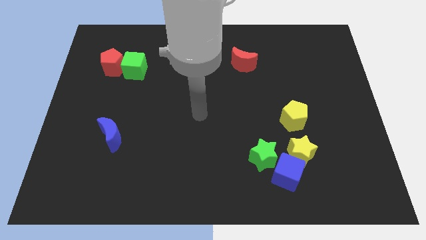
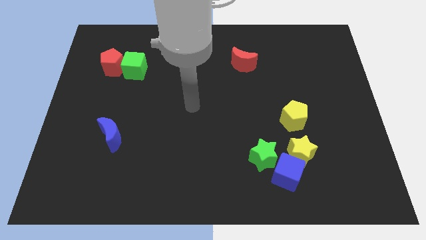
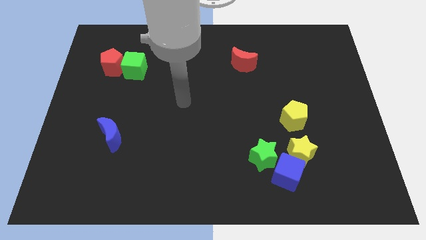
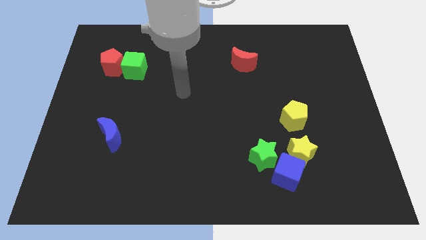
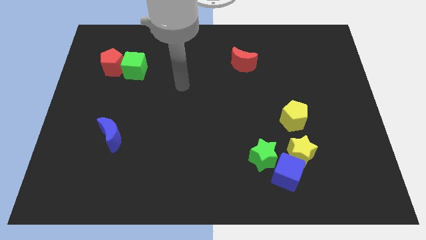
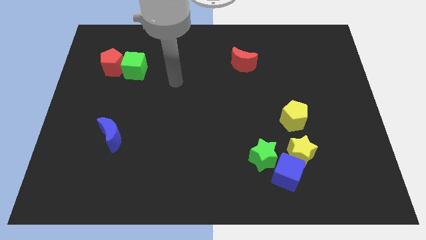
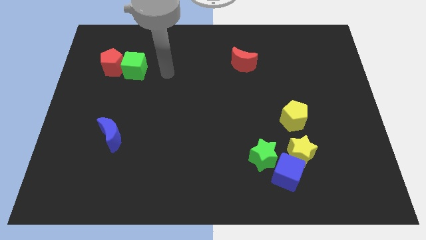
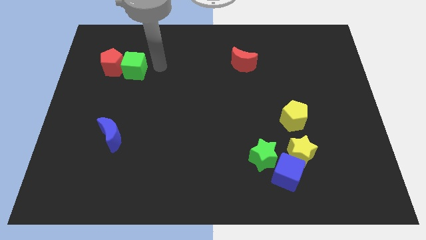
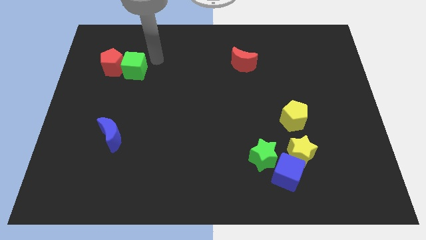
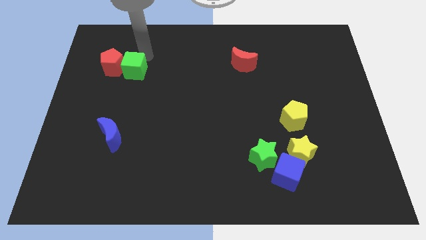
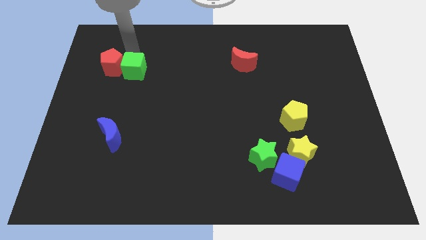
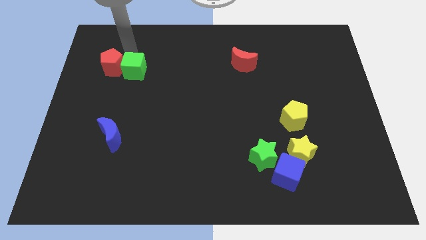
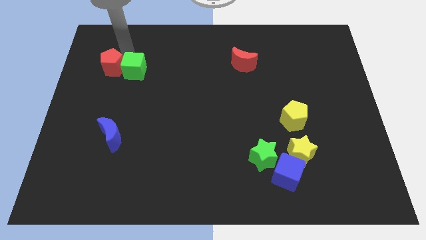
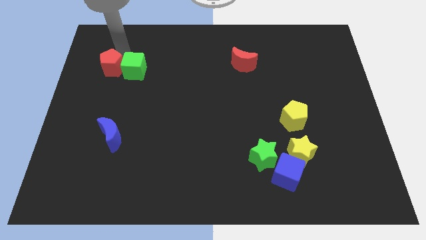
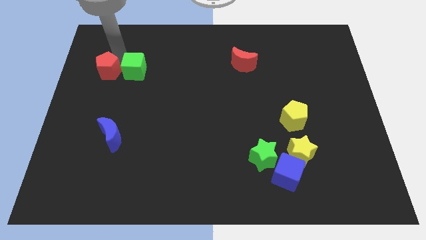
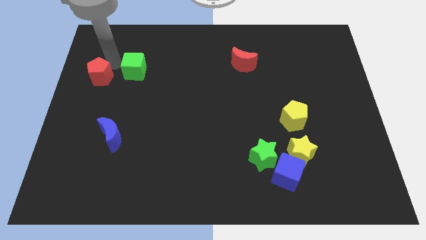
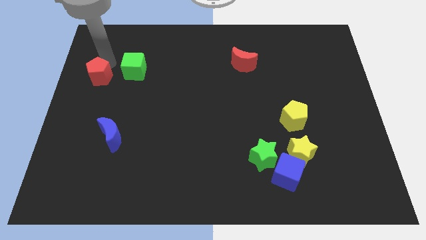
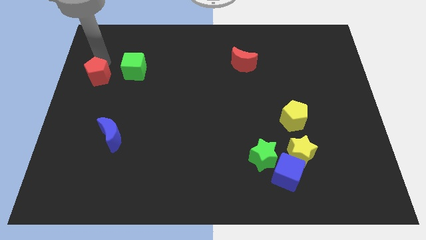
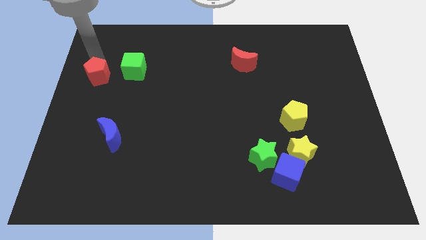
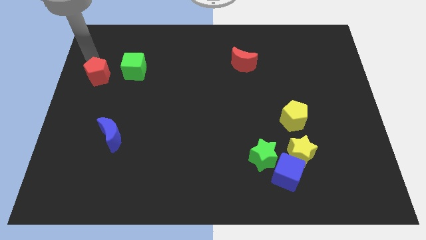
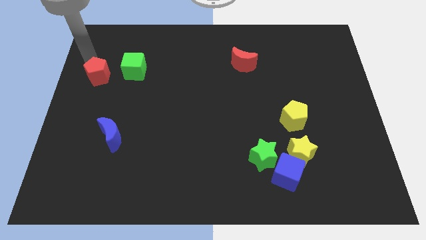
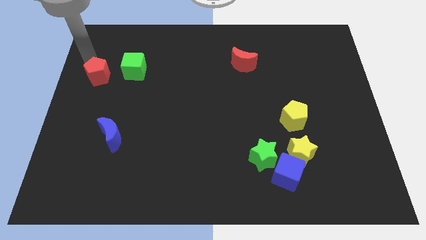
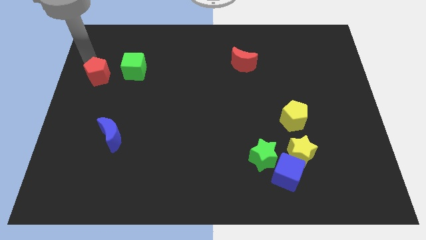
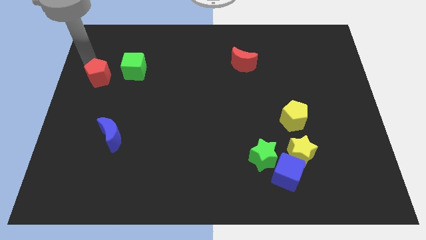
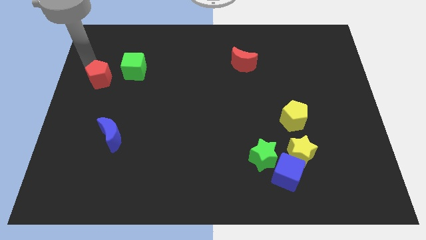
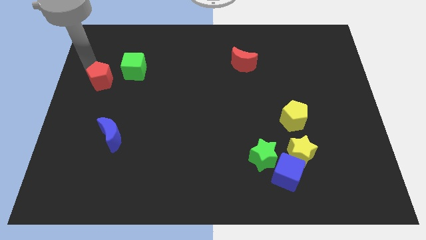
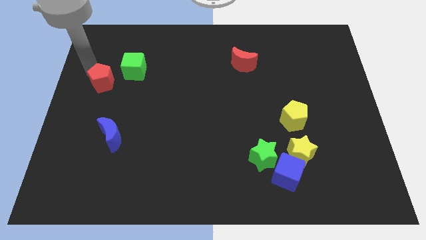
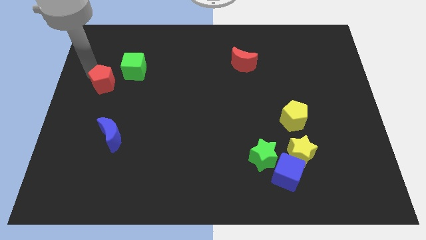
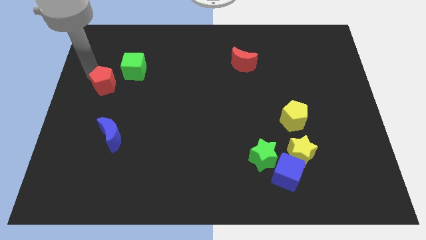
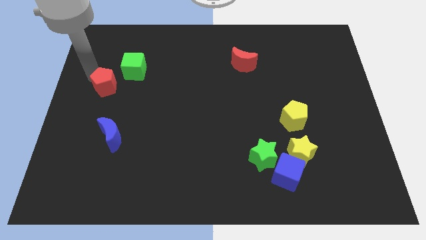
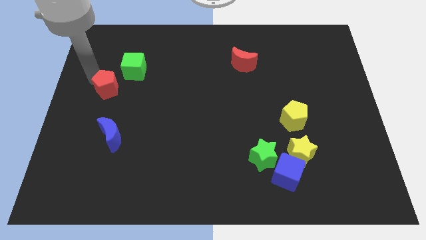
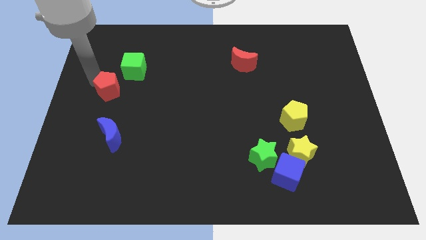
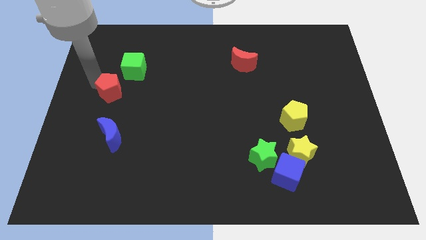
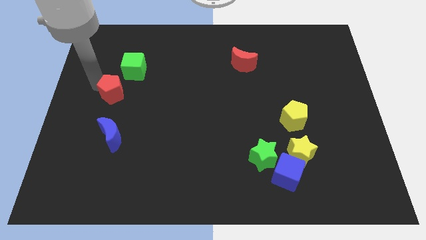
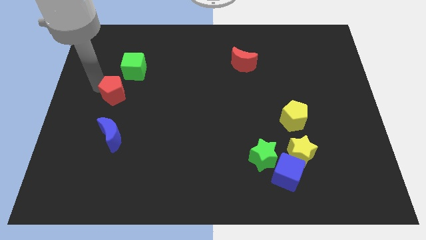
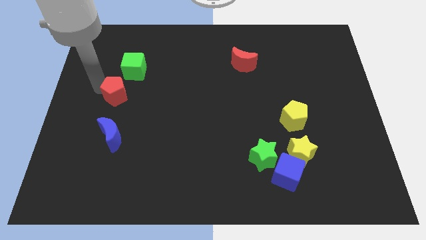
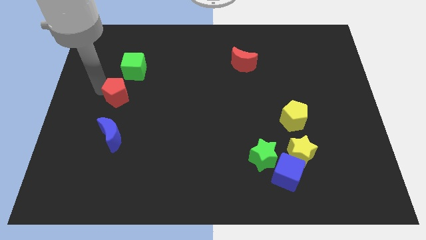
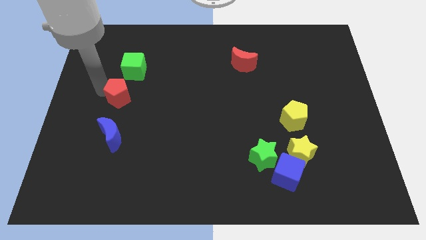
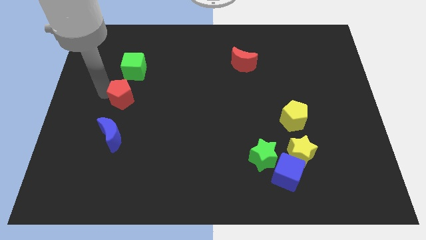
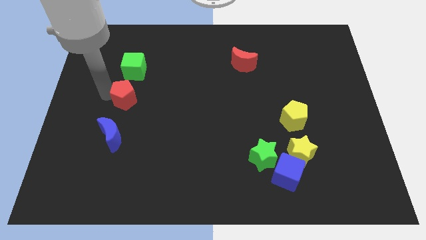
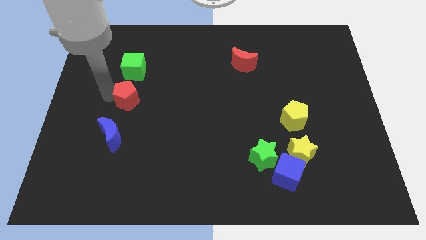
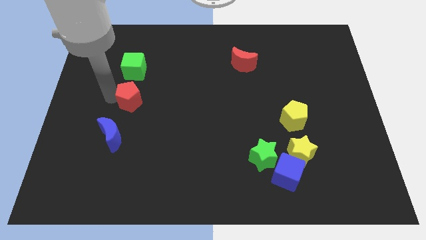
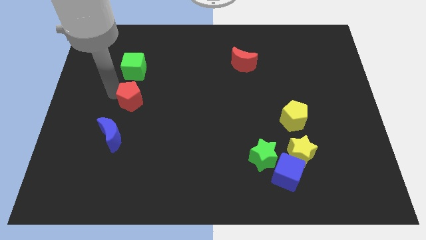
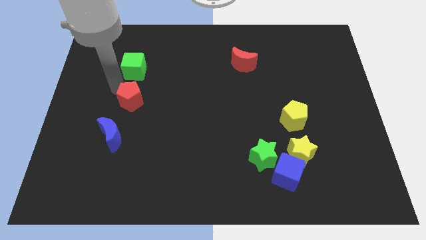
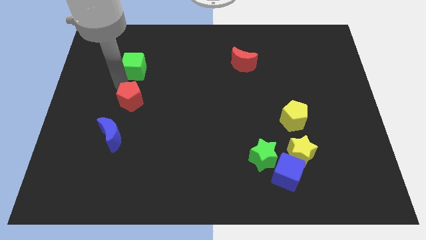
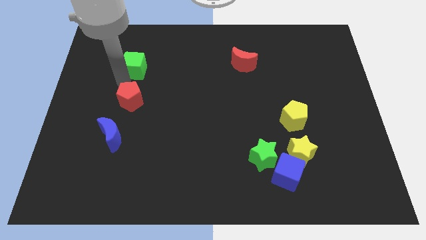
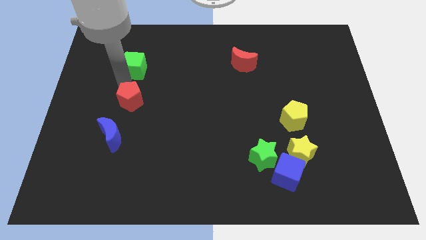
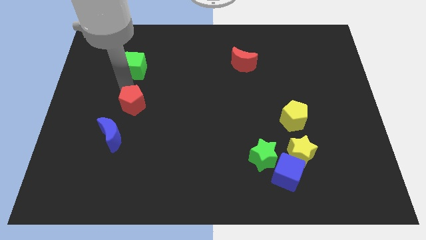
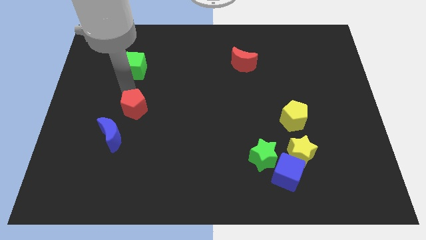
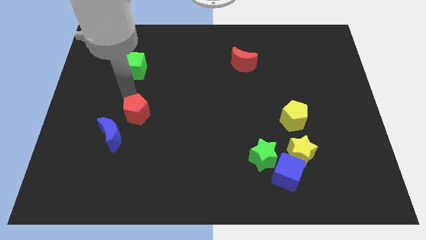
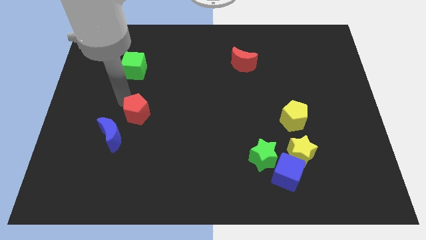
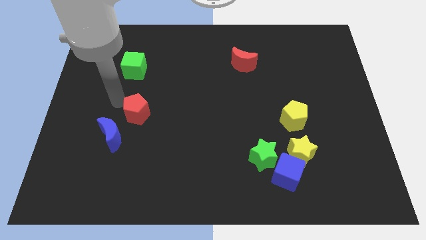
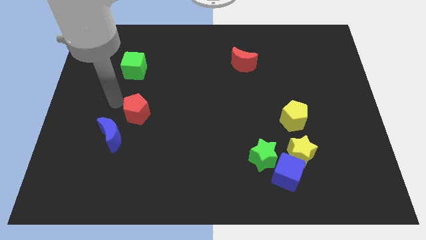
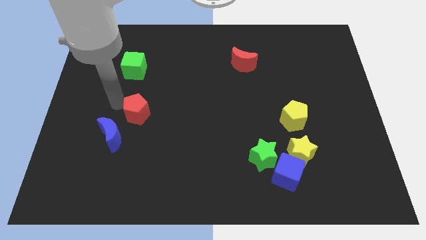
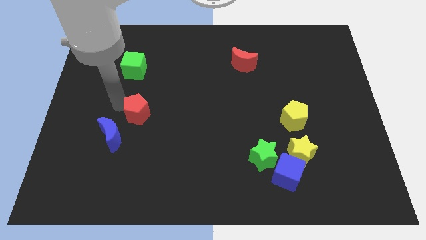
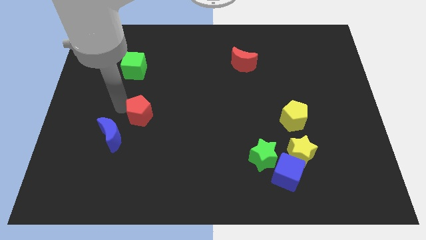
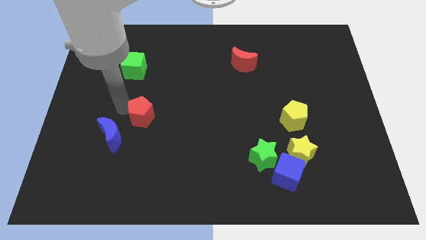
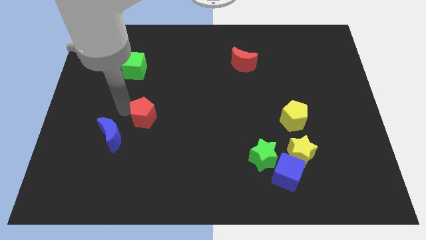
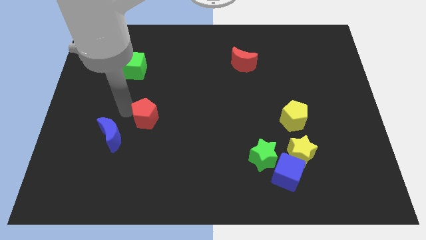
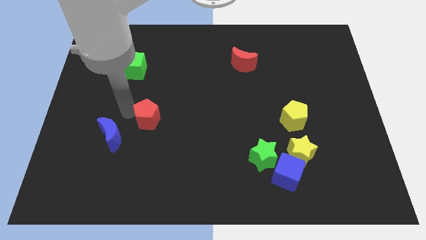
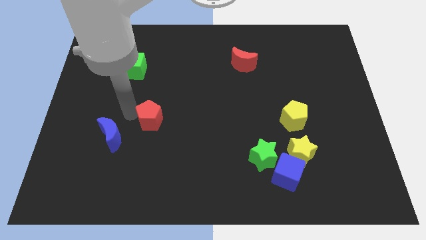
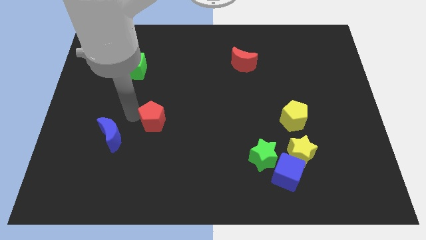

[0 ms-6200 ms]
push the red pentagon diagonally down and right

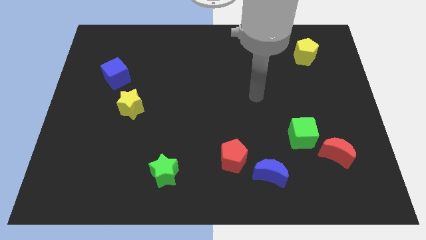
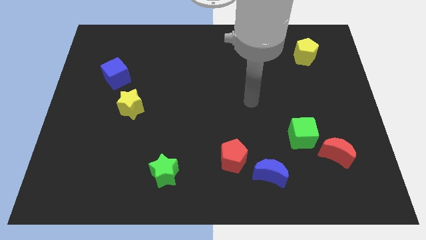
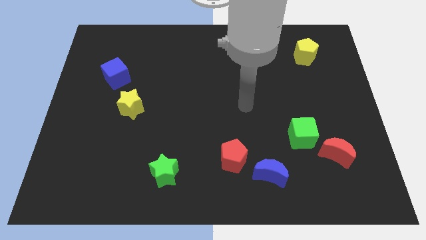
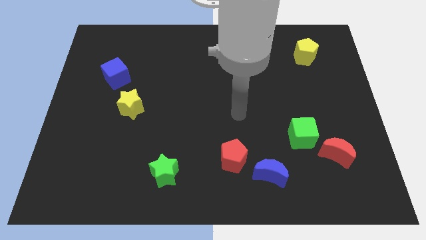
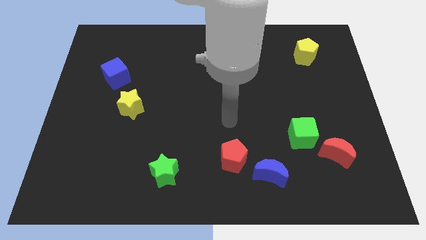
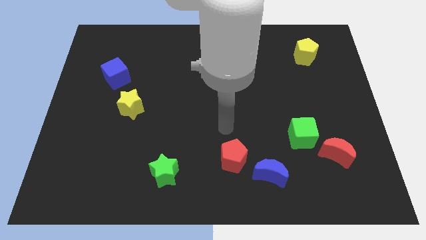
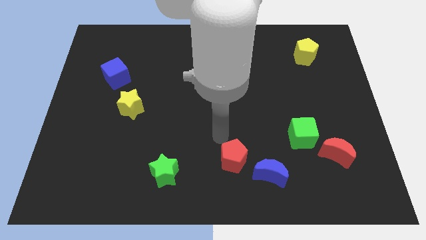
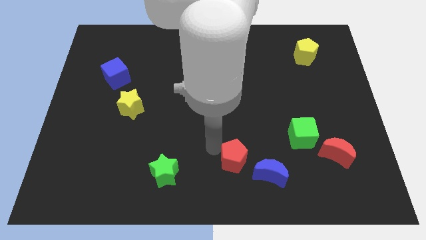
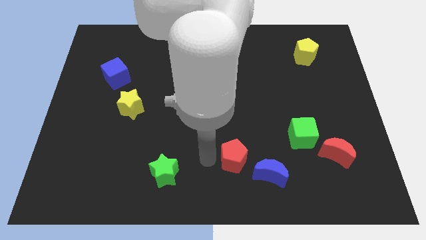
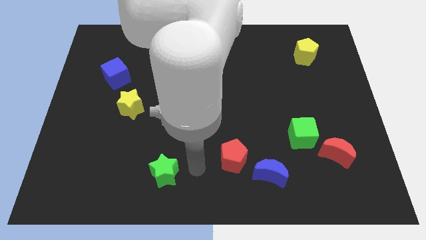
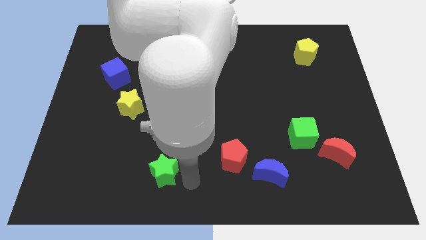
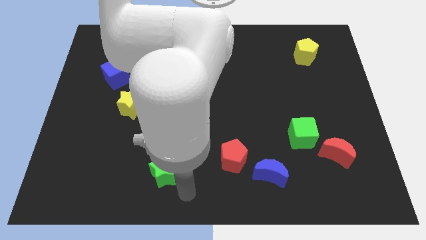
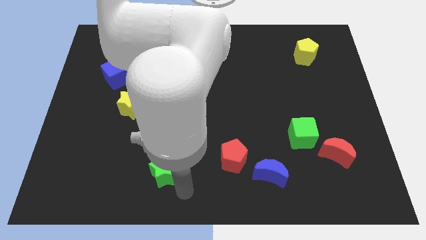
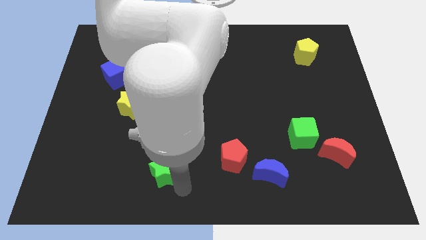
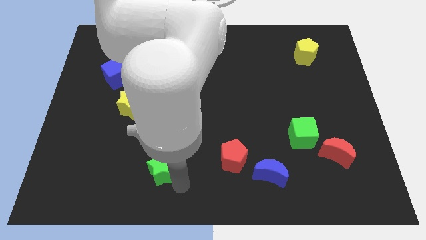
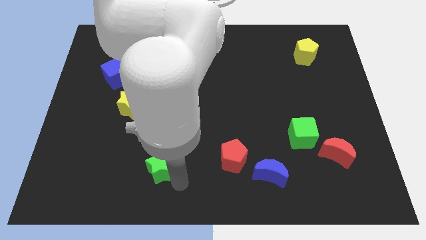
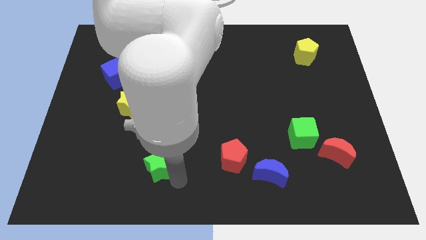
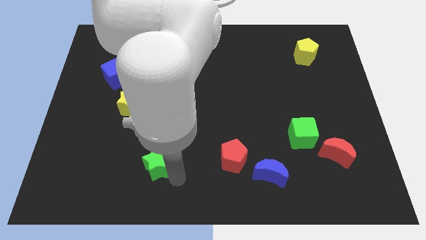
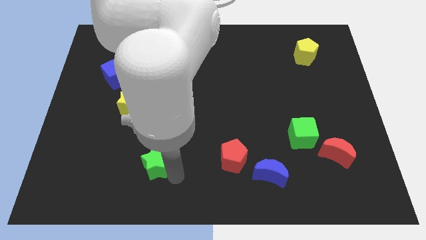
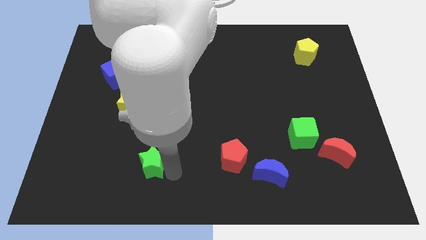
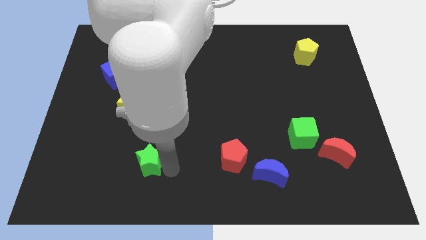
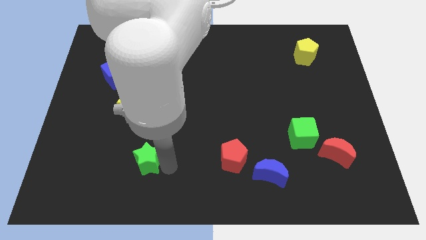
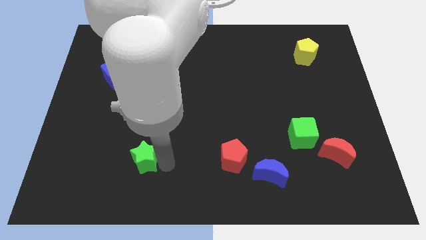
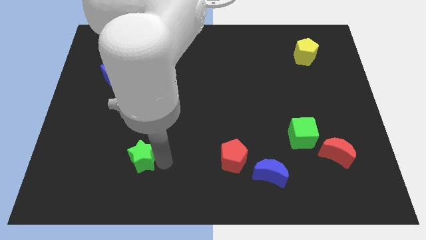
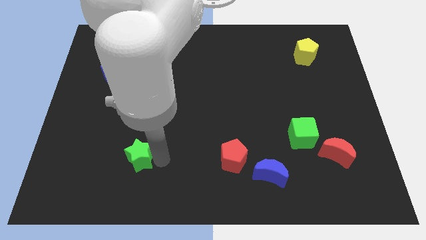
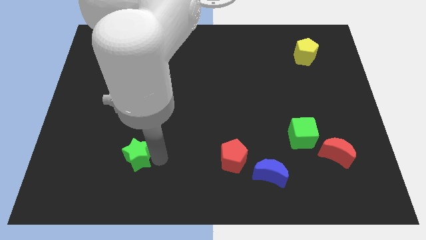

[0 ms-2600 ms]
move the green star a little bit up and left
